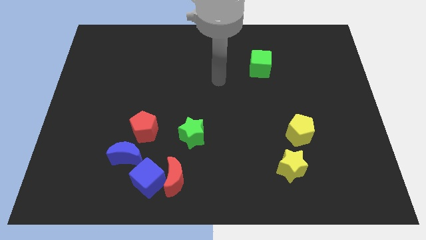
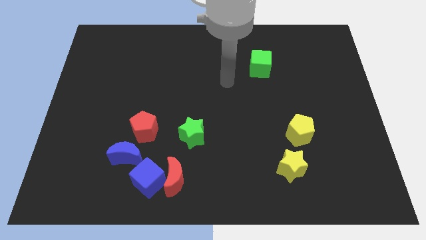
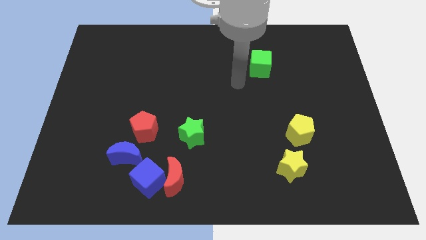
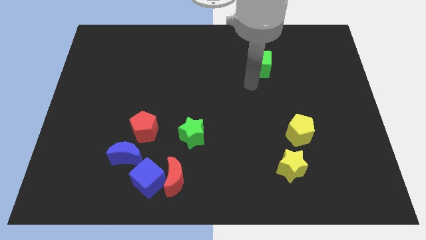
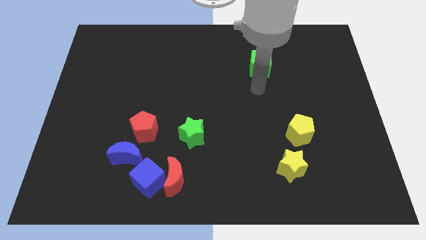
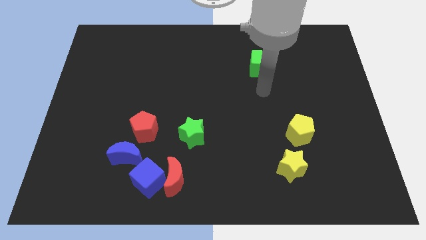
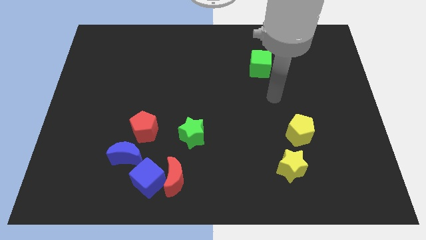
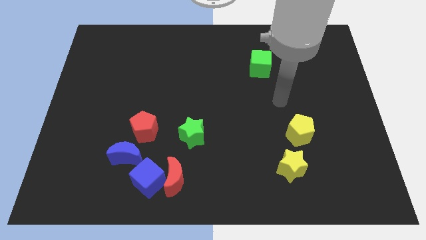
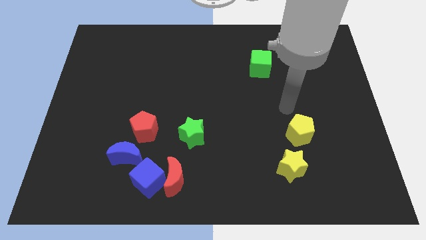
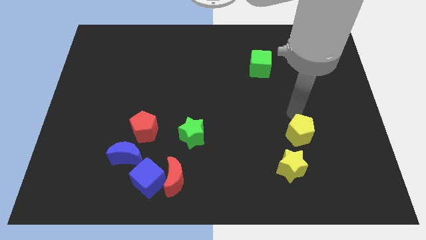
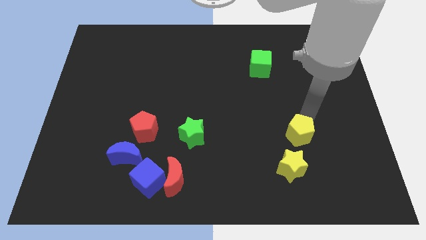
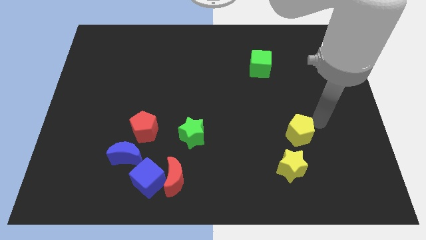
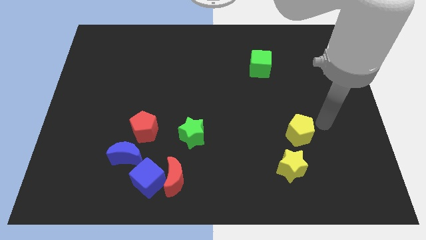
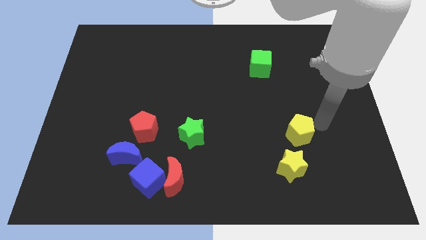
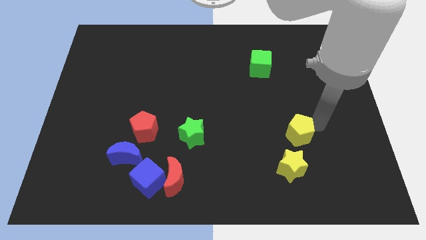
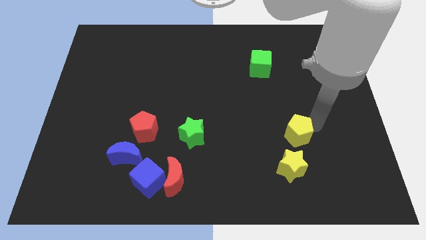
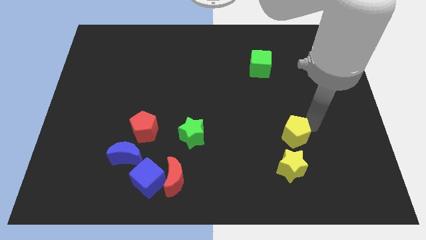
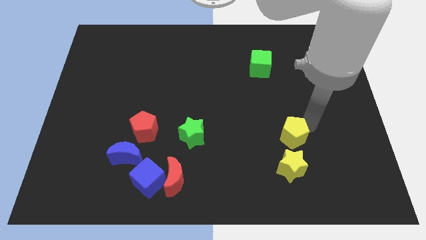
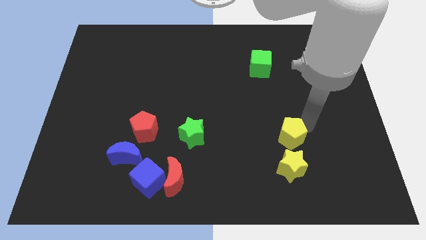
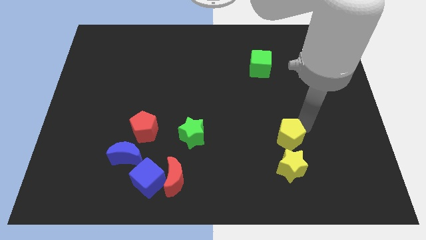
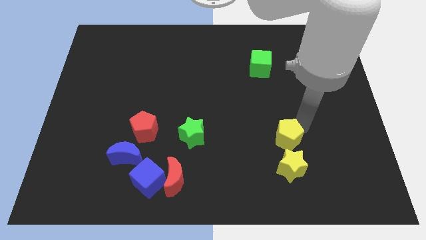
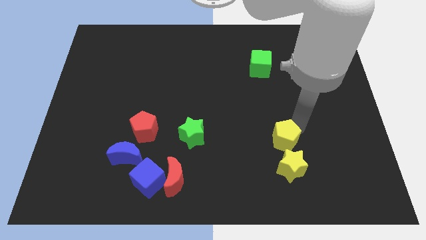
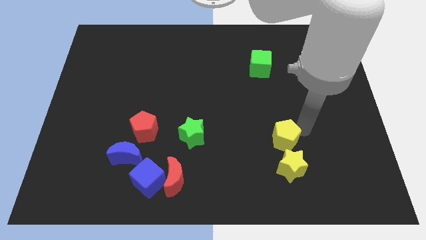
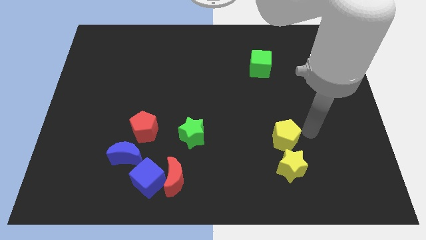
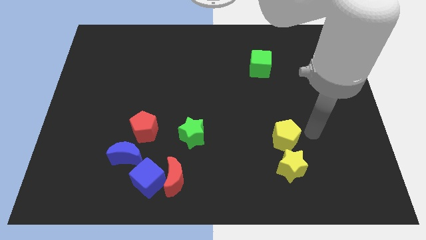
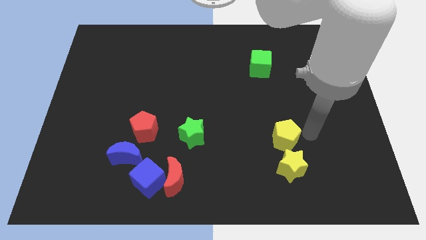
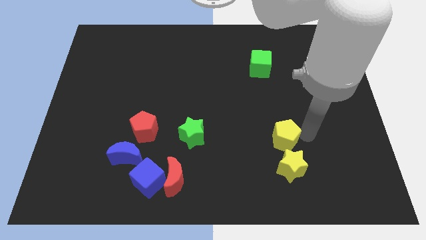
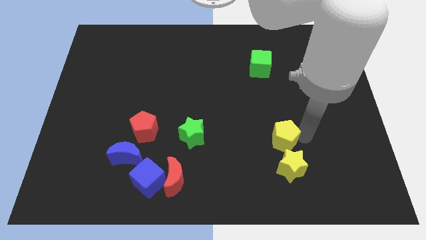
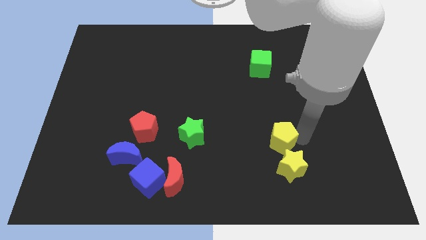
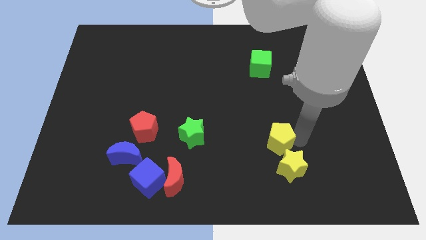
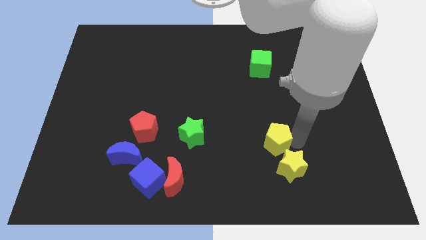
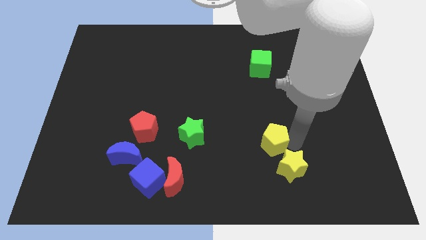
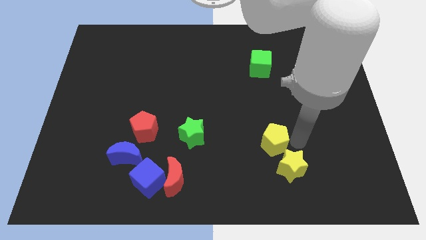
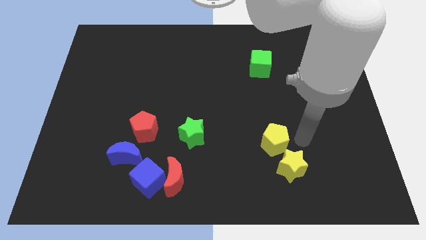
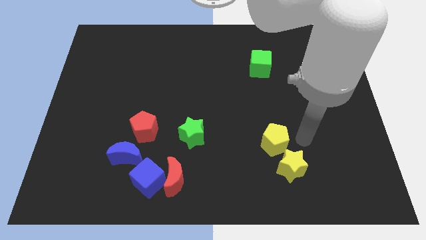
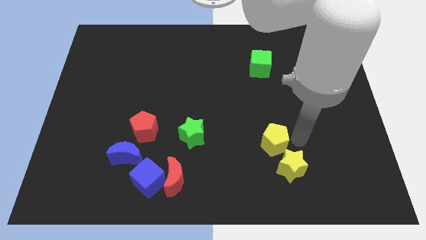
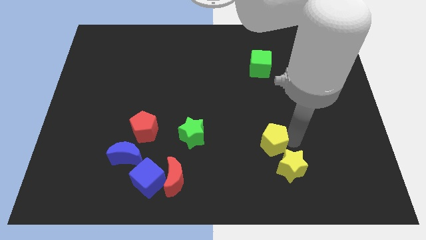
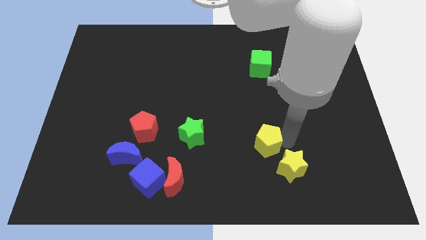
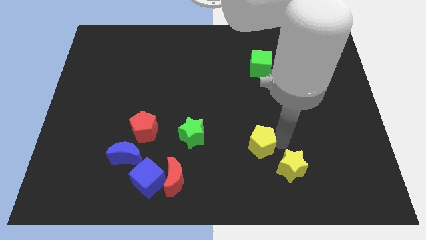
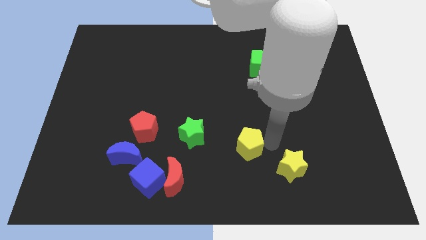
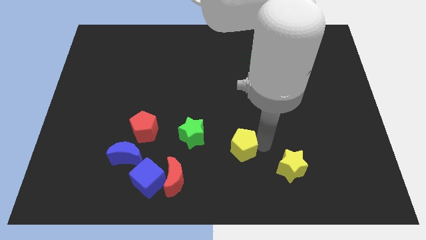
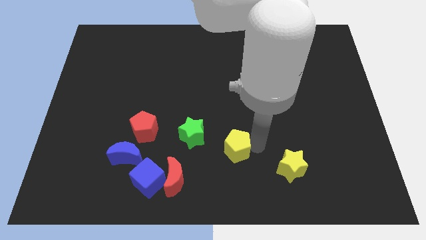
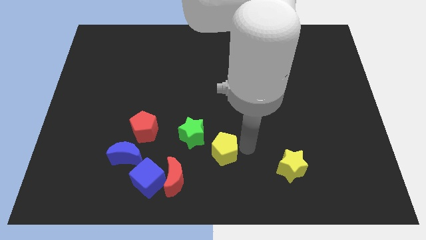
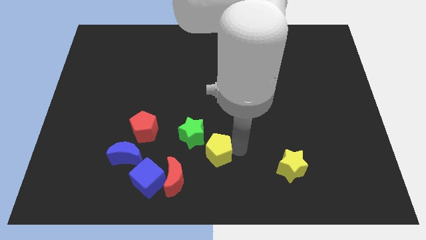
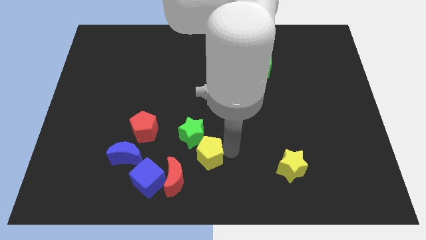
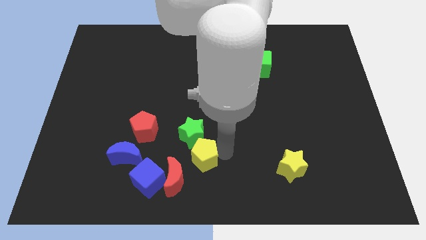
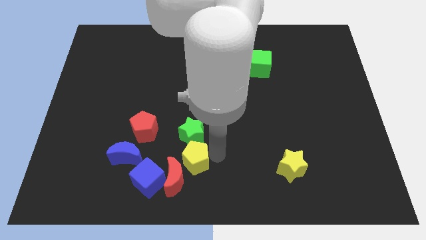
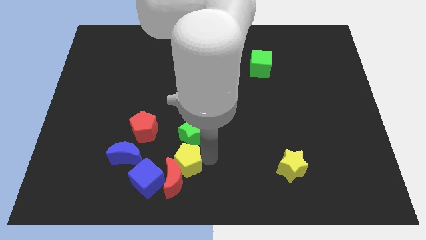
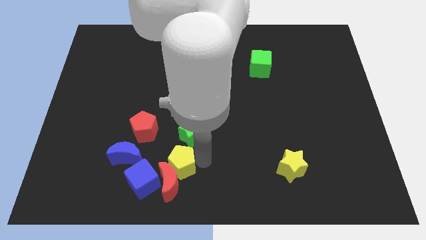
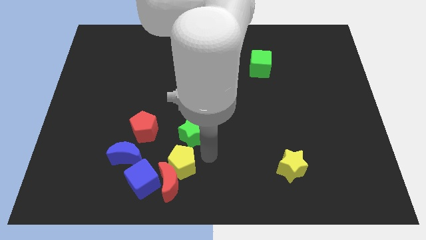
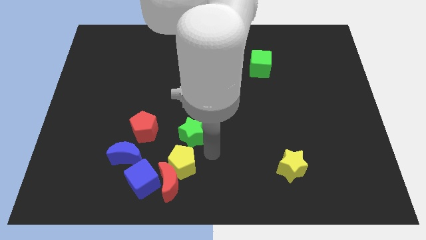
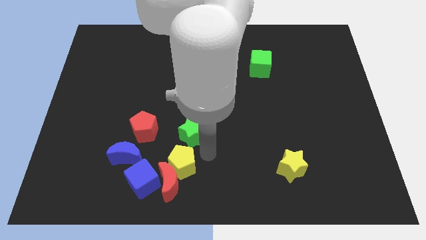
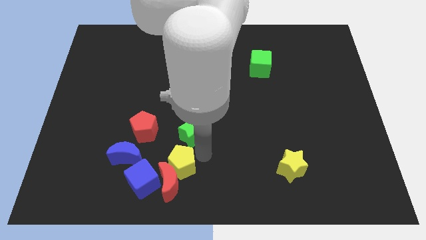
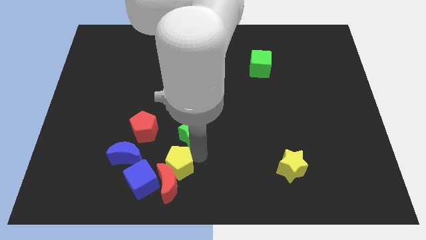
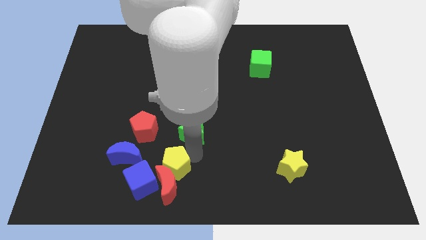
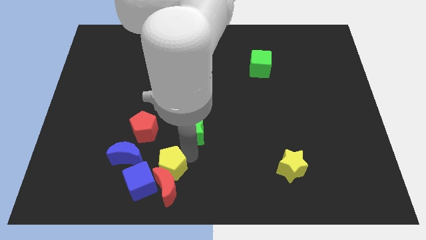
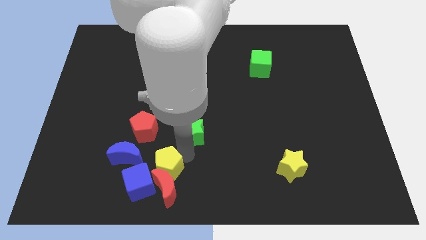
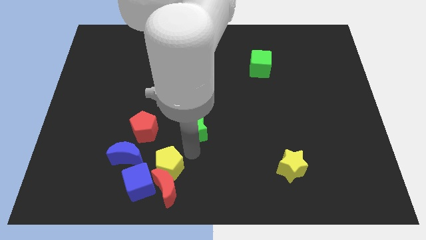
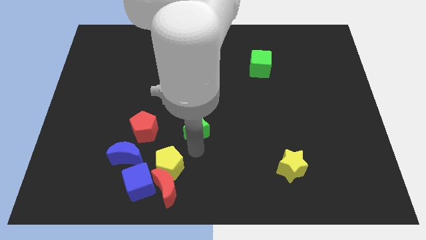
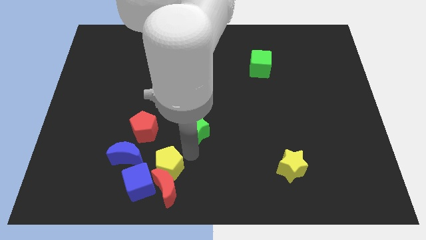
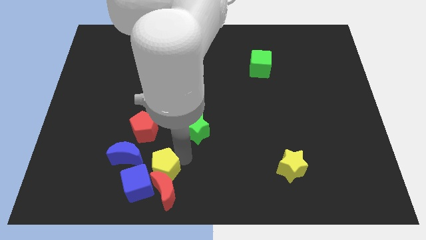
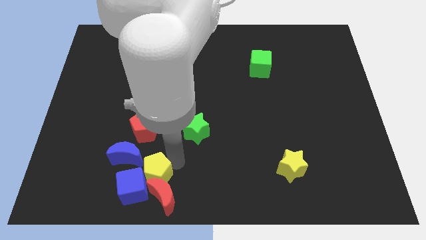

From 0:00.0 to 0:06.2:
slide the yellow pentagon to the blue cube

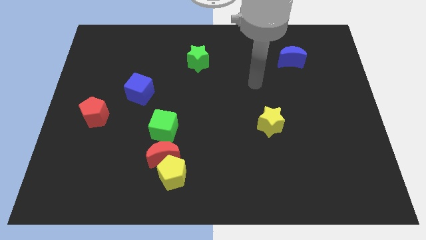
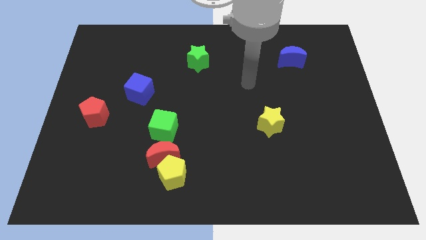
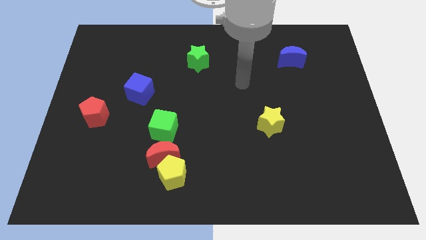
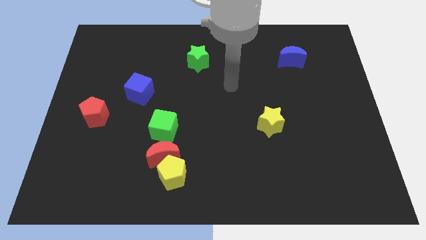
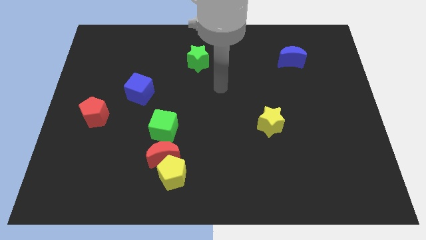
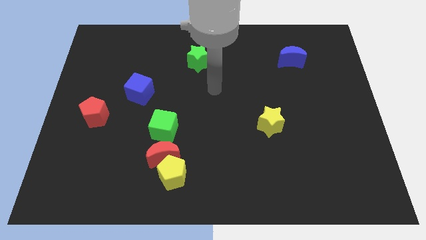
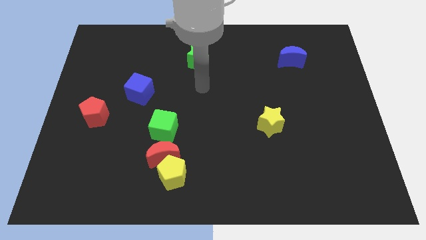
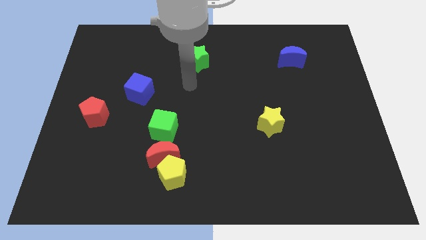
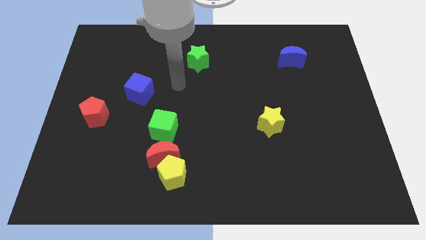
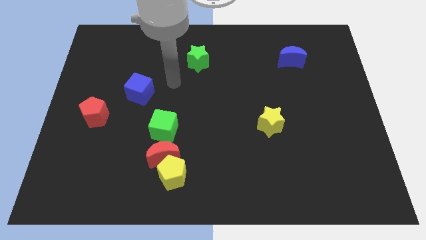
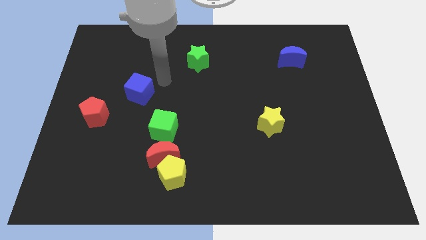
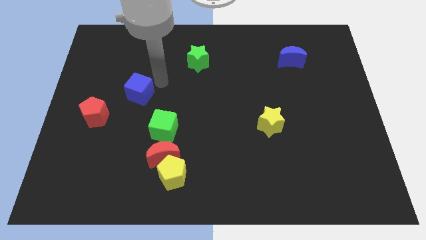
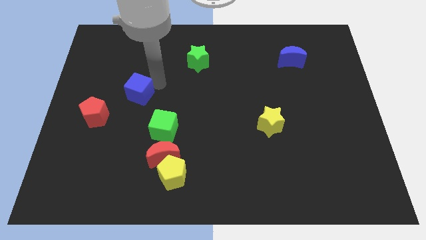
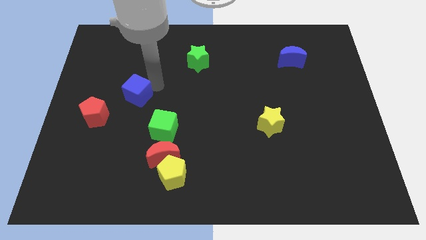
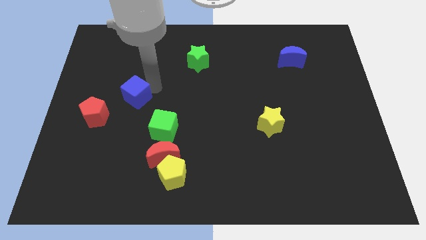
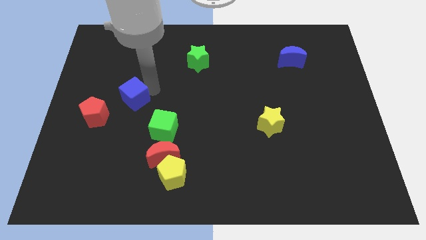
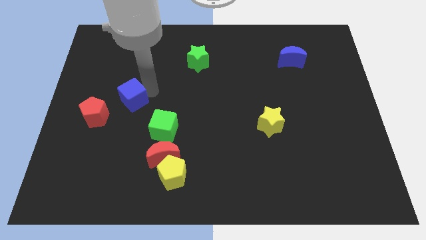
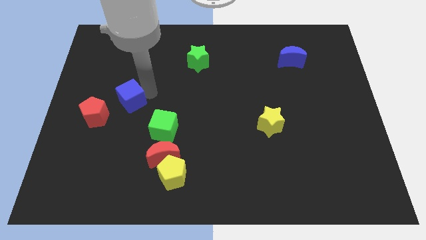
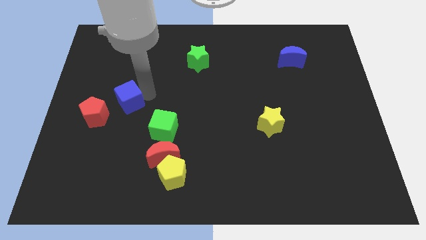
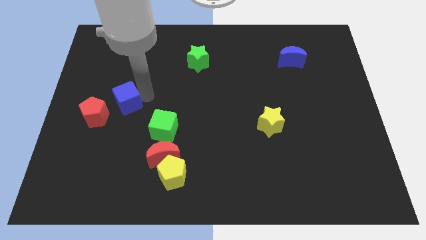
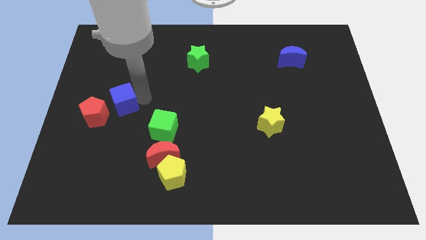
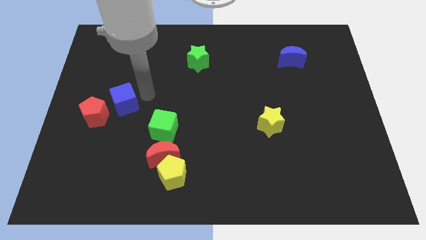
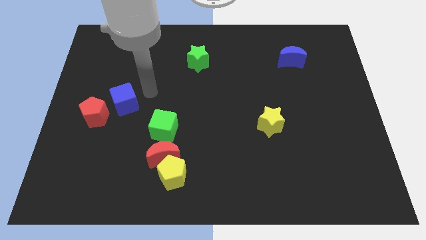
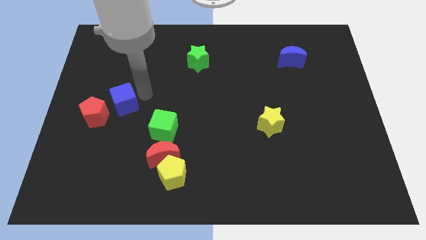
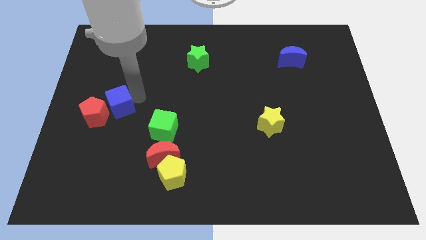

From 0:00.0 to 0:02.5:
put the blue cube towards the red pentagon
